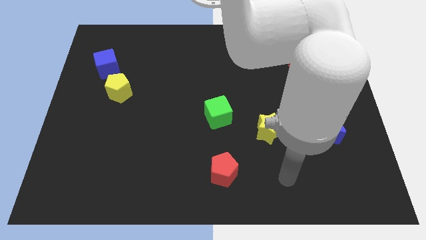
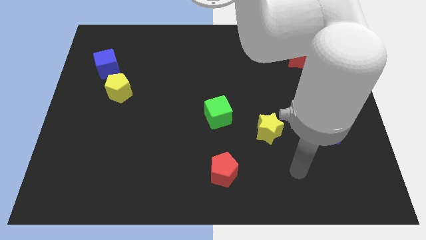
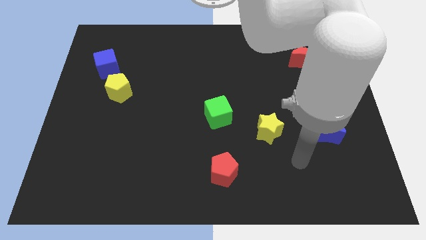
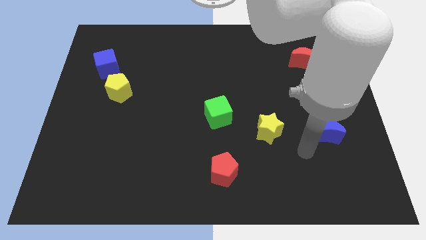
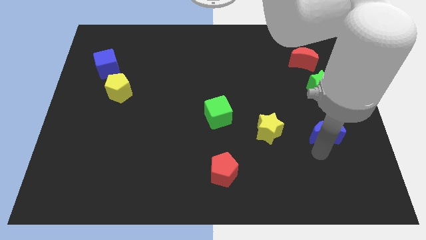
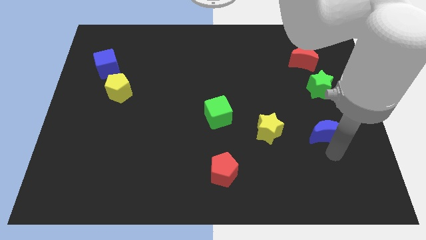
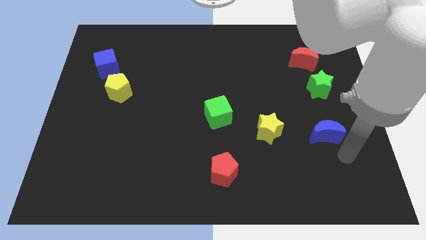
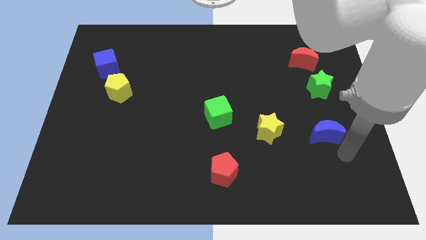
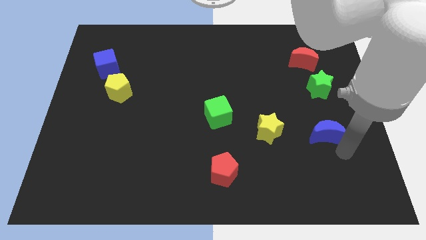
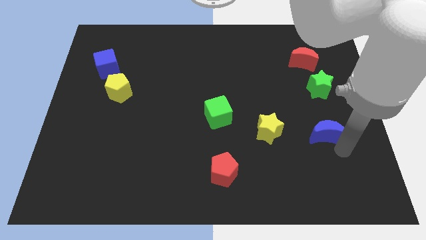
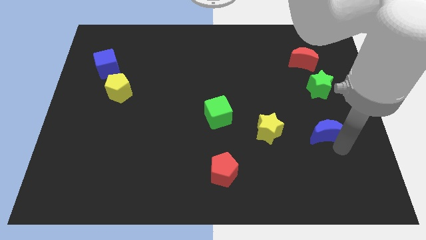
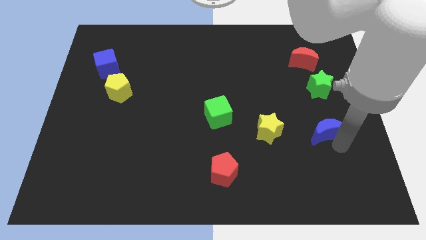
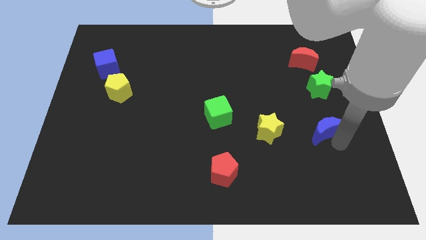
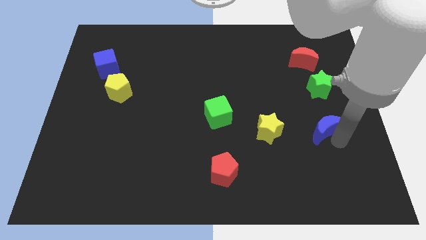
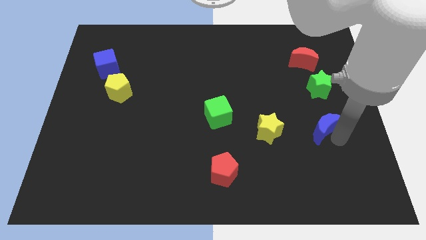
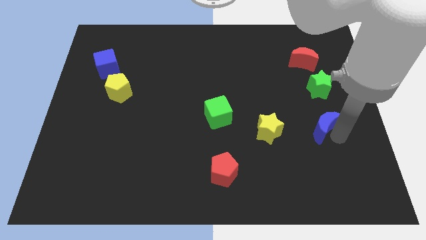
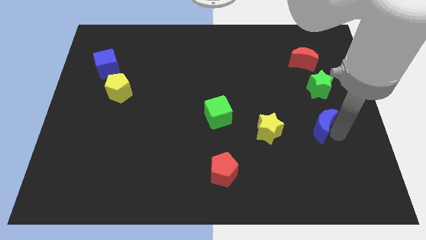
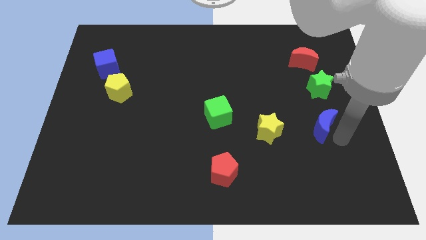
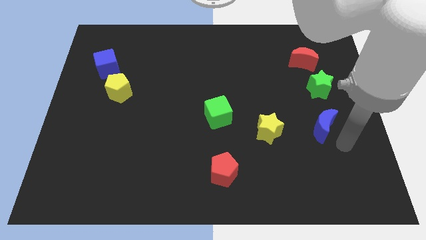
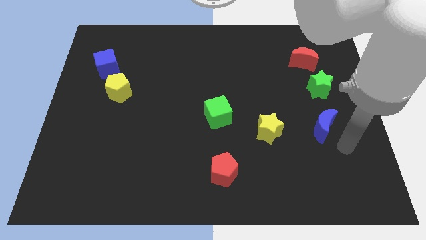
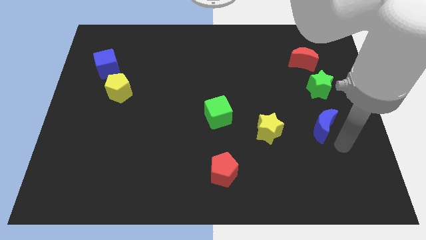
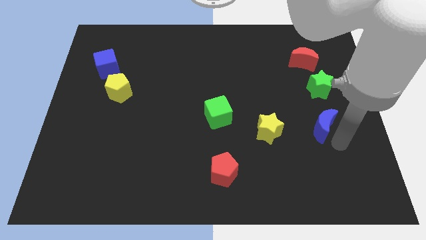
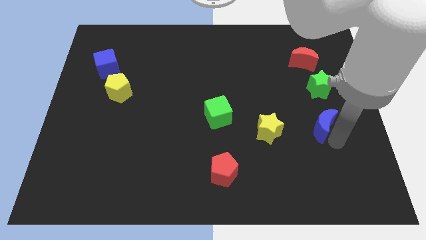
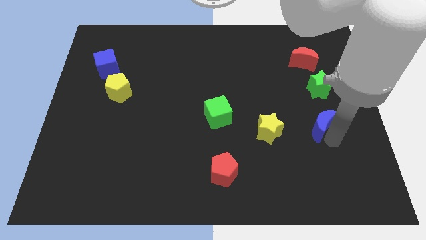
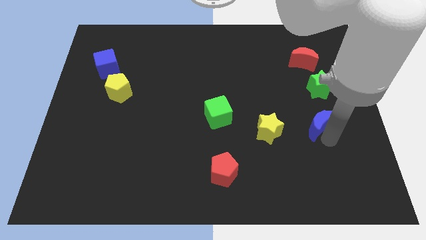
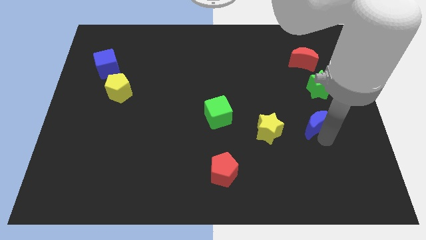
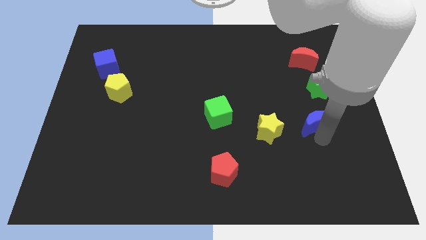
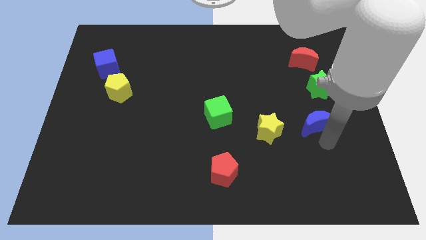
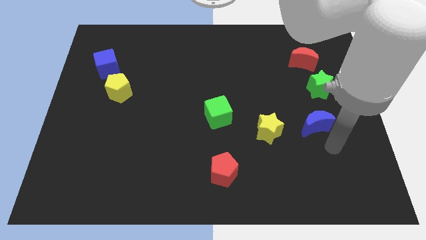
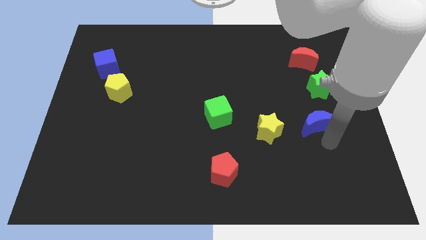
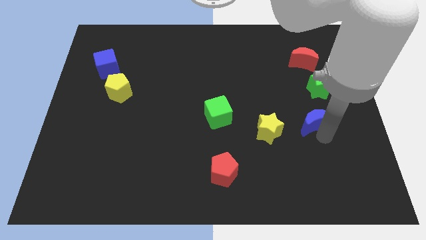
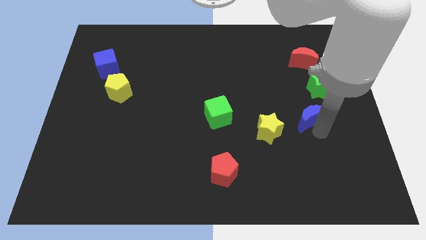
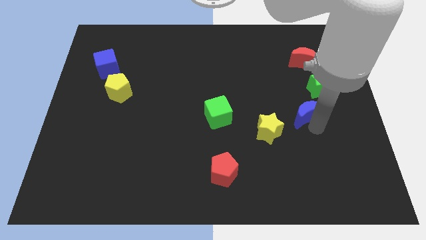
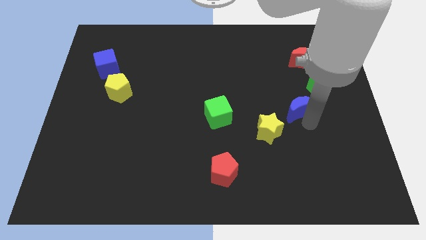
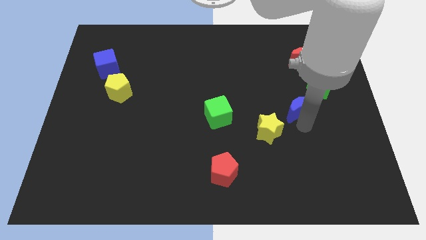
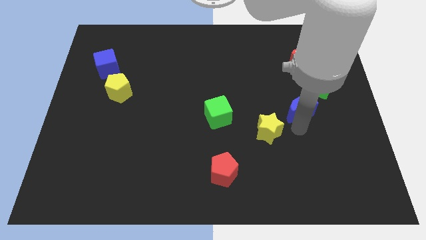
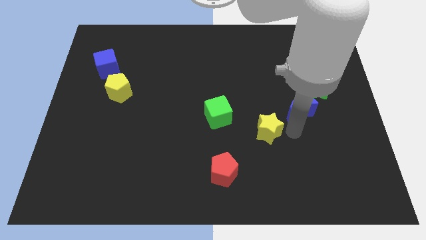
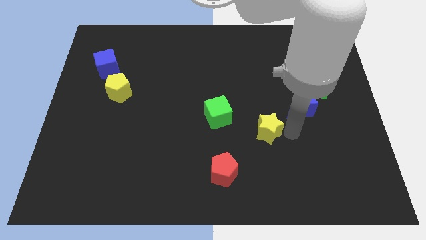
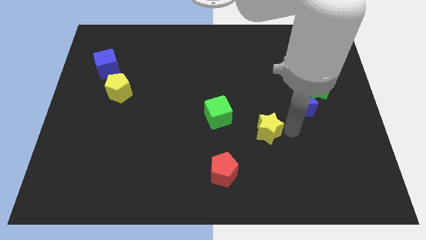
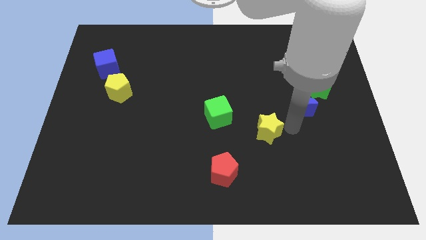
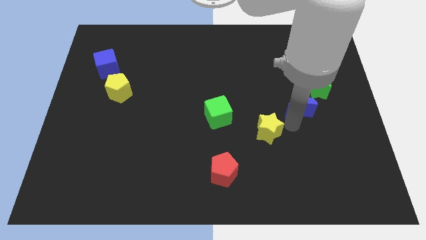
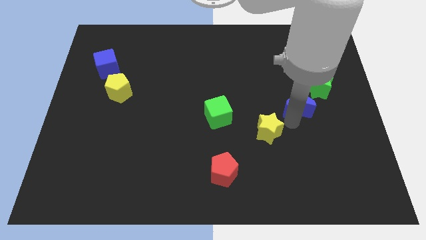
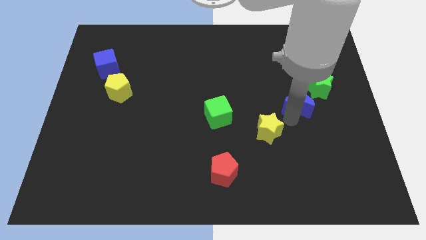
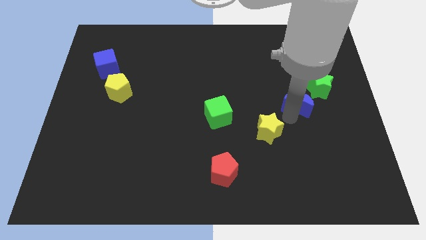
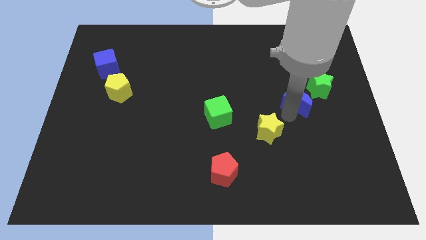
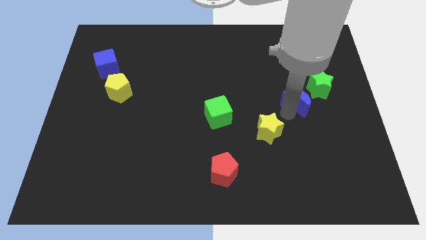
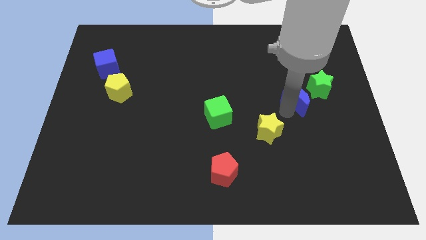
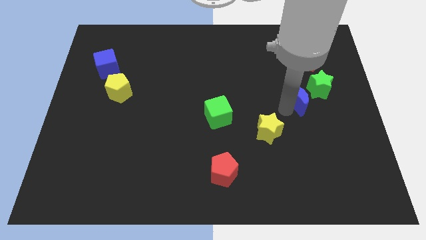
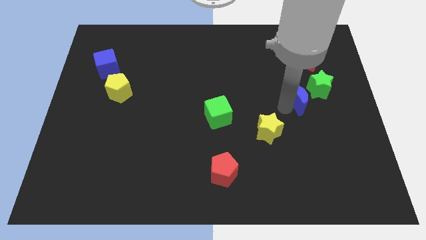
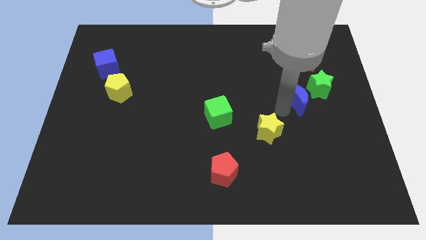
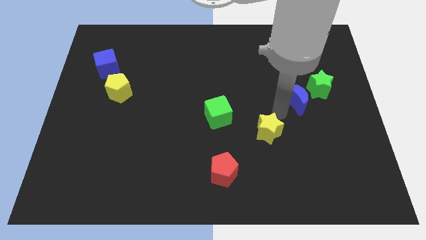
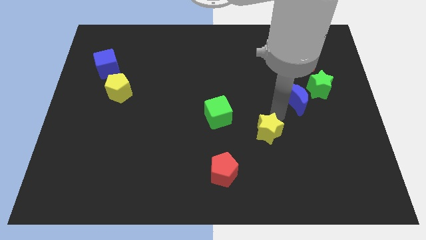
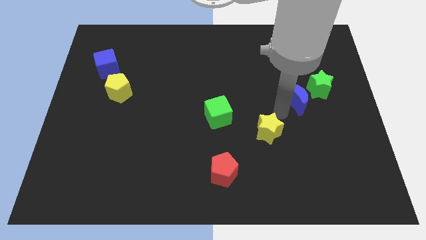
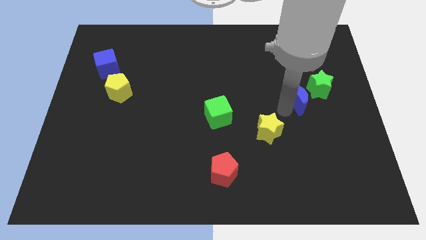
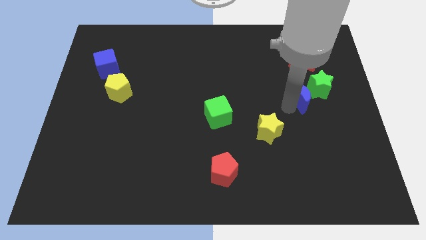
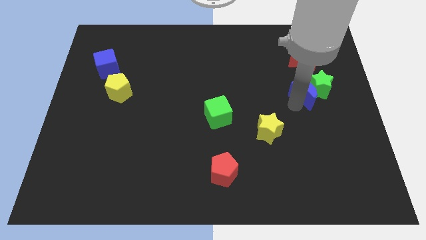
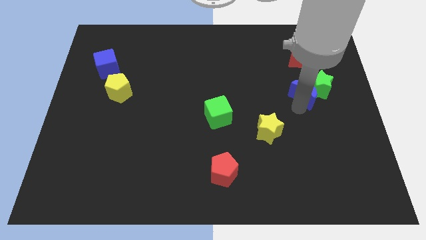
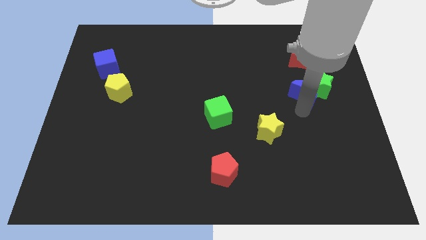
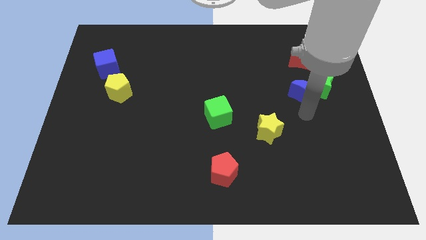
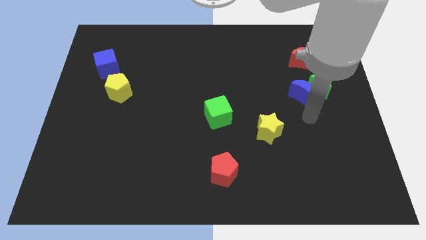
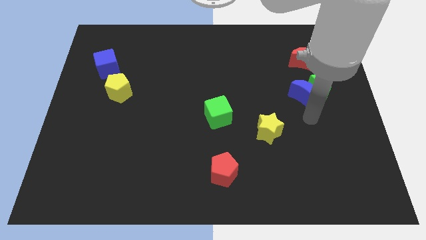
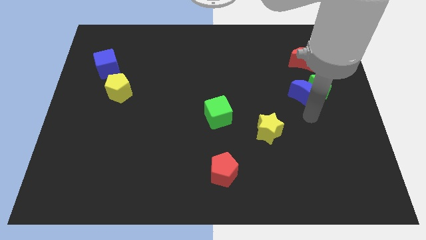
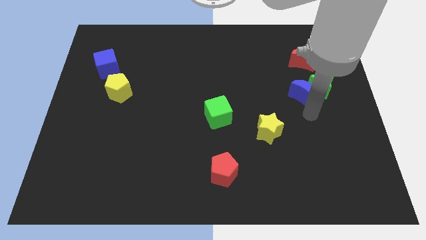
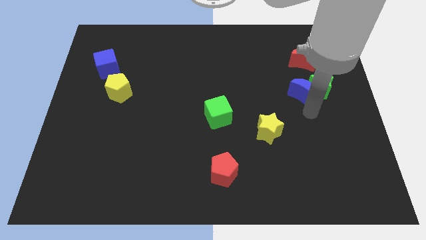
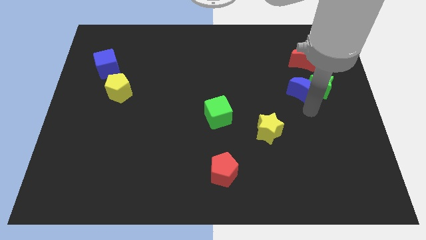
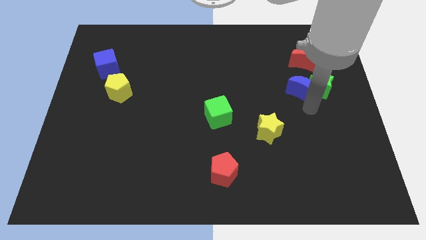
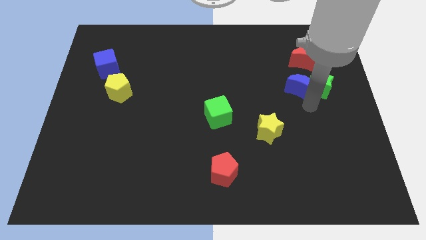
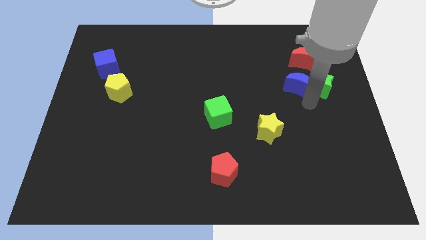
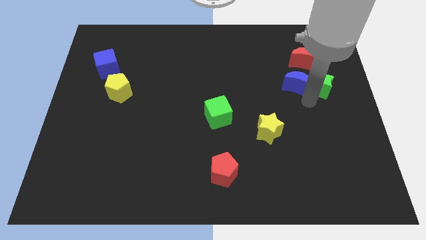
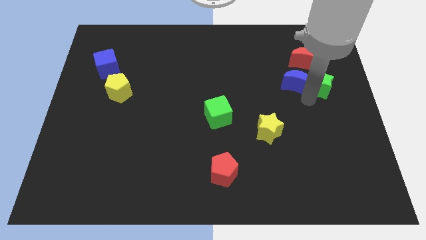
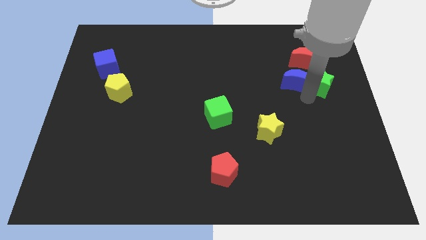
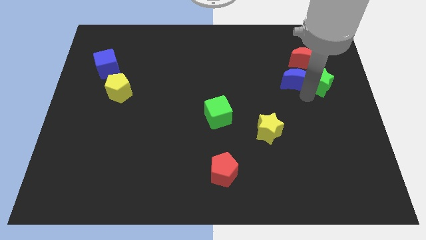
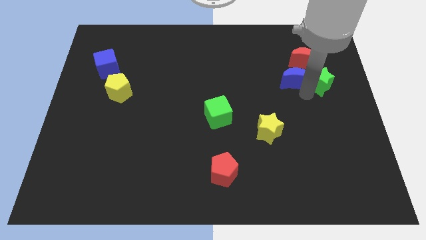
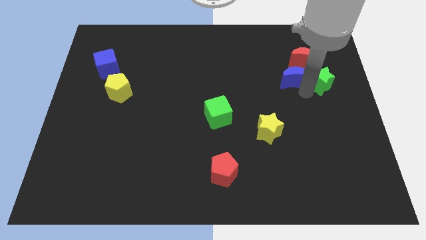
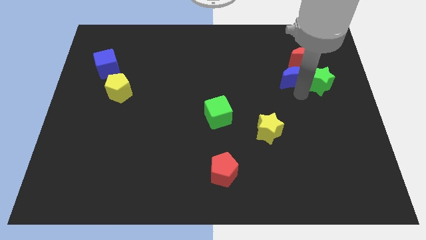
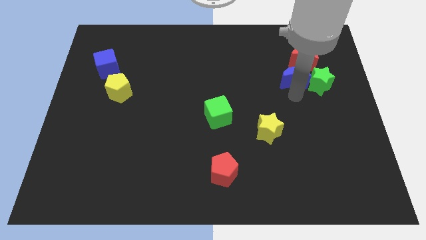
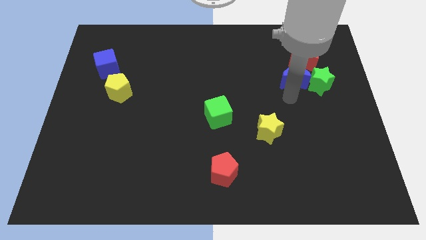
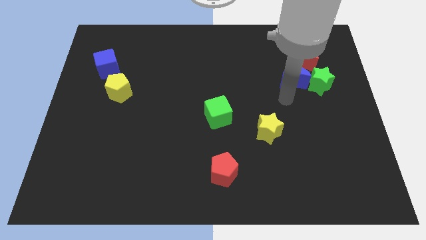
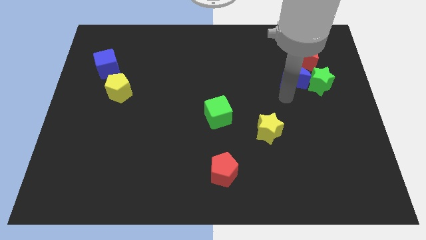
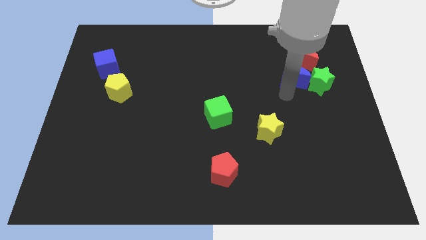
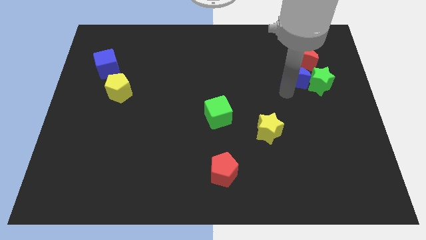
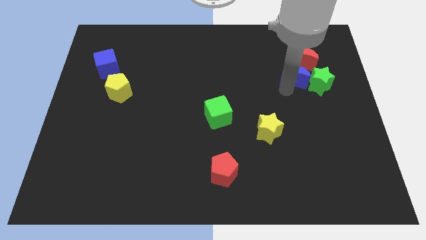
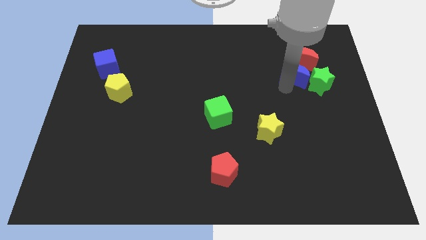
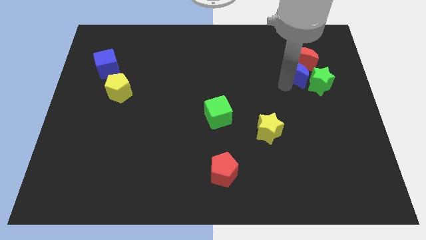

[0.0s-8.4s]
slide the blue moon to the red moon
